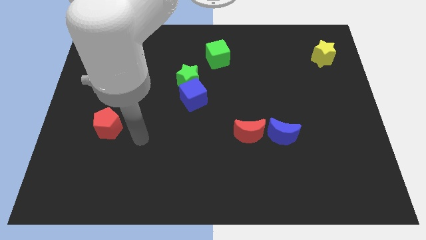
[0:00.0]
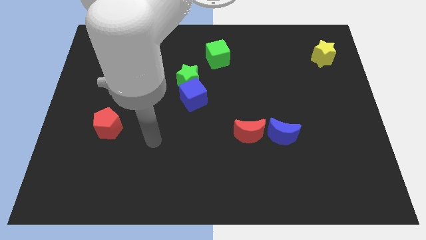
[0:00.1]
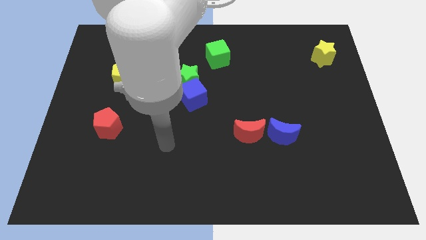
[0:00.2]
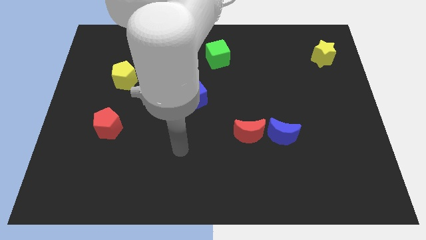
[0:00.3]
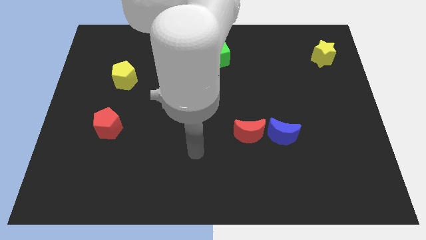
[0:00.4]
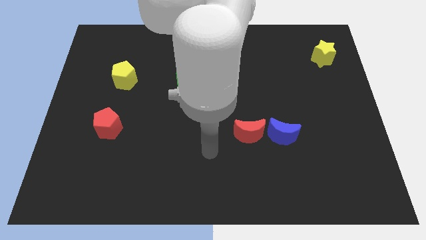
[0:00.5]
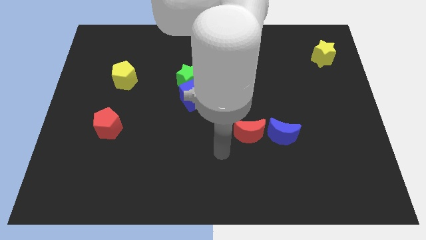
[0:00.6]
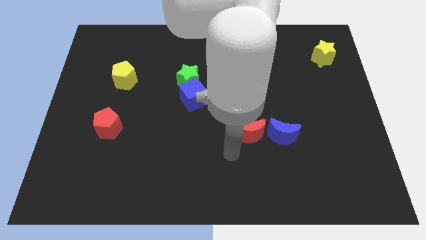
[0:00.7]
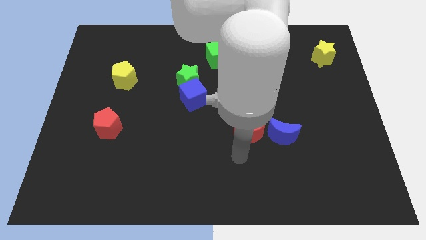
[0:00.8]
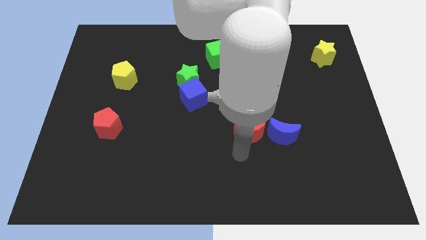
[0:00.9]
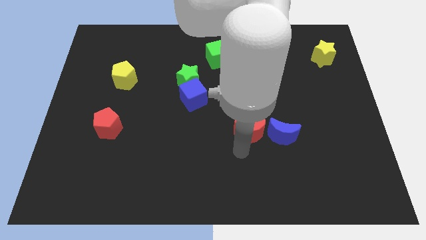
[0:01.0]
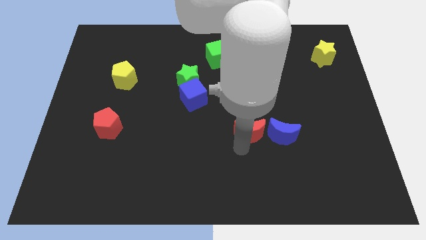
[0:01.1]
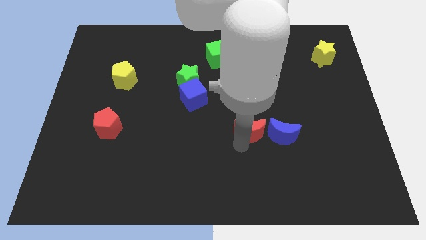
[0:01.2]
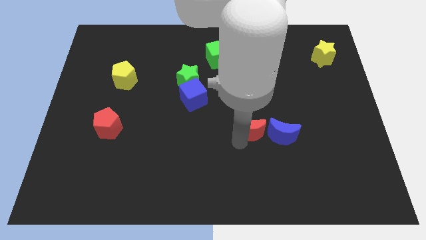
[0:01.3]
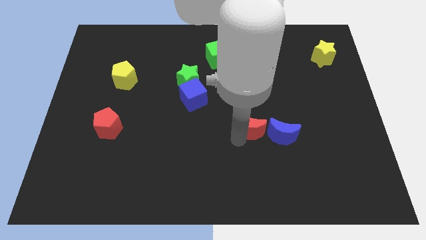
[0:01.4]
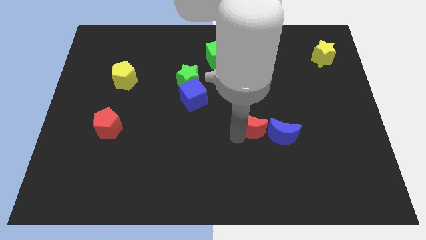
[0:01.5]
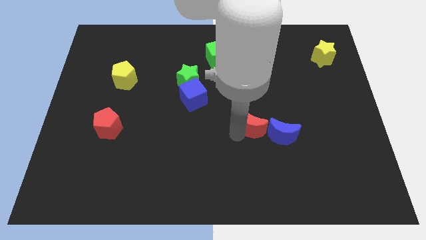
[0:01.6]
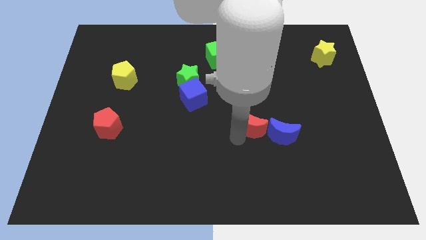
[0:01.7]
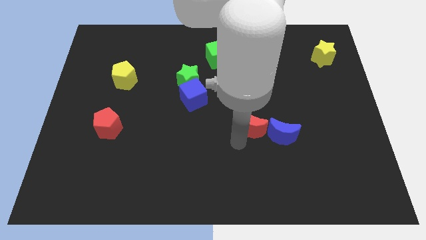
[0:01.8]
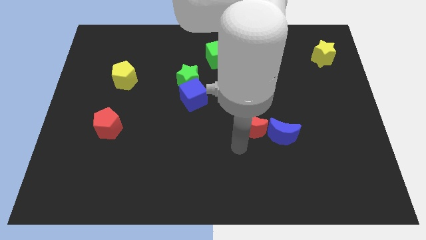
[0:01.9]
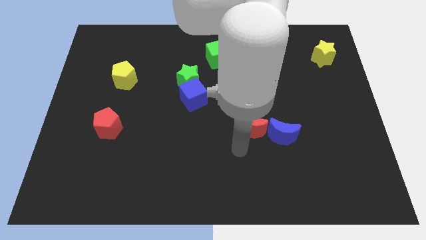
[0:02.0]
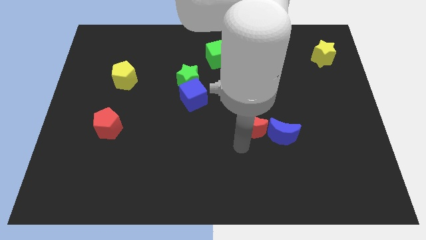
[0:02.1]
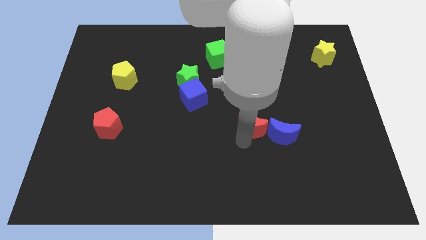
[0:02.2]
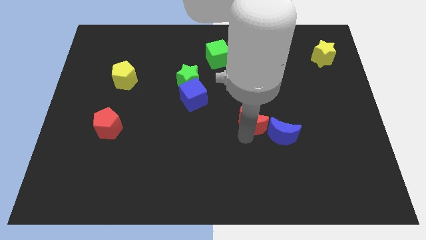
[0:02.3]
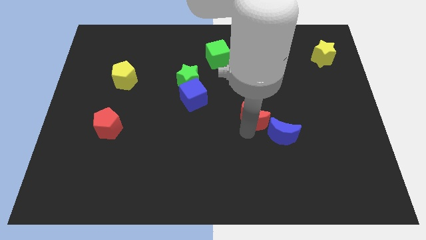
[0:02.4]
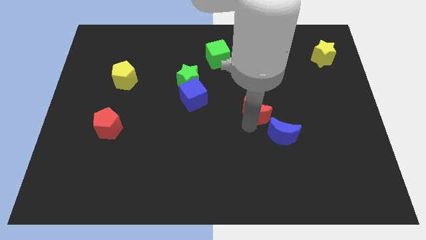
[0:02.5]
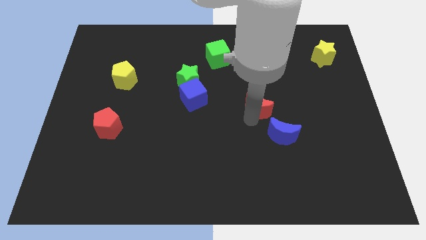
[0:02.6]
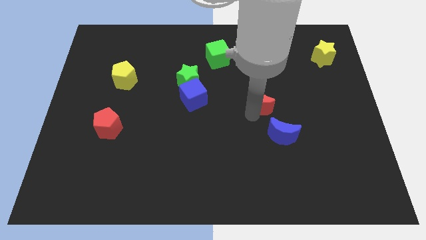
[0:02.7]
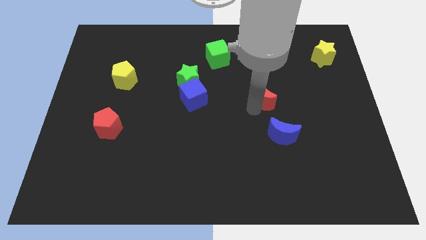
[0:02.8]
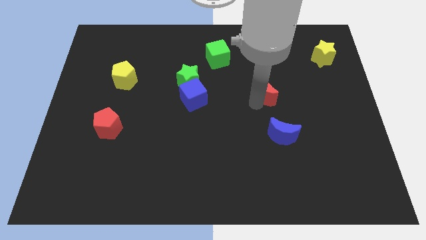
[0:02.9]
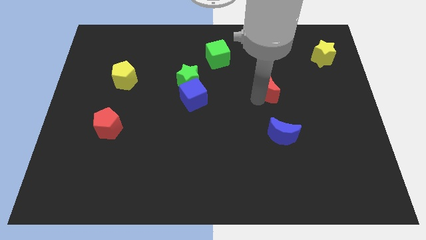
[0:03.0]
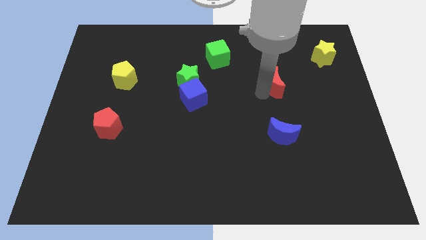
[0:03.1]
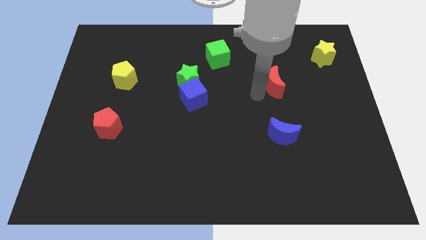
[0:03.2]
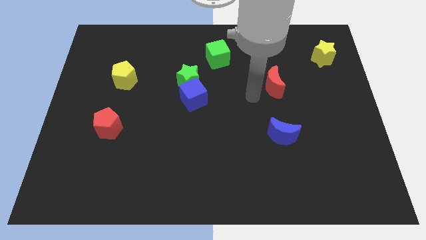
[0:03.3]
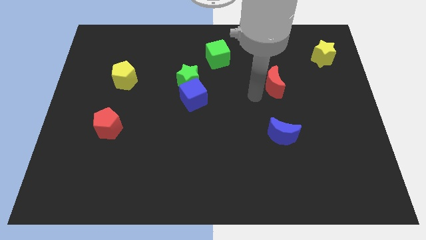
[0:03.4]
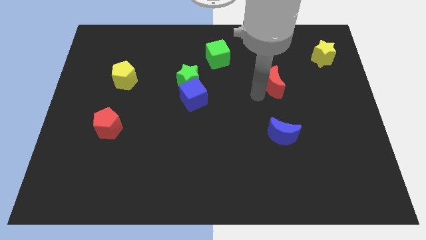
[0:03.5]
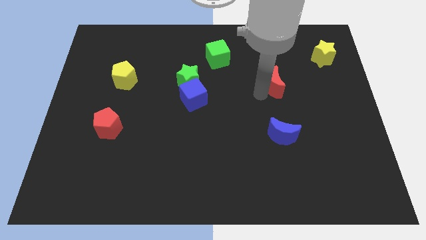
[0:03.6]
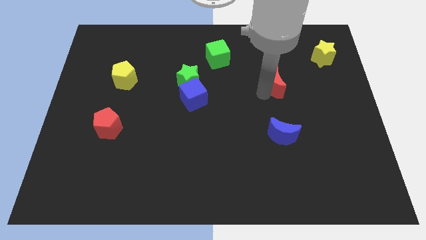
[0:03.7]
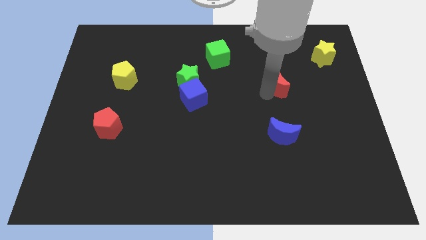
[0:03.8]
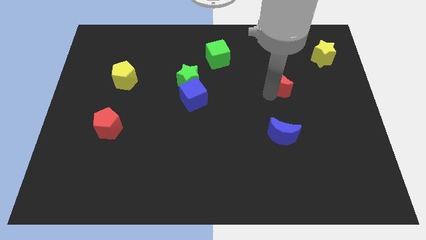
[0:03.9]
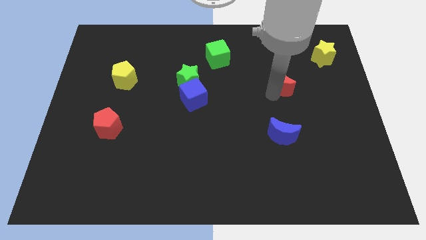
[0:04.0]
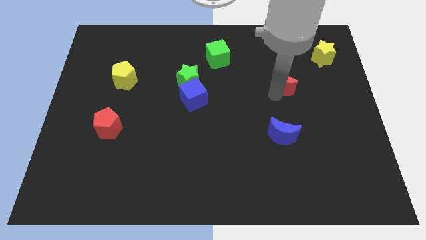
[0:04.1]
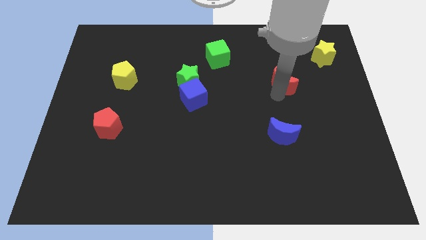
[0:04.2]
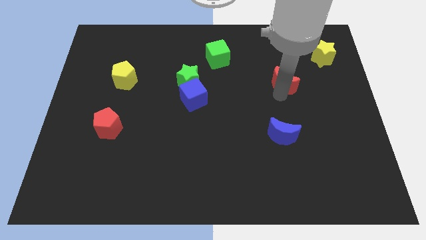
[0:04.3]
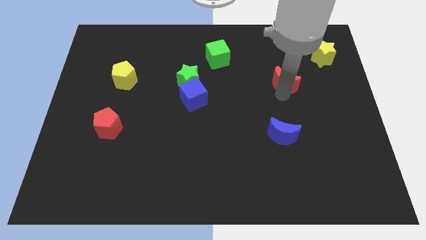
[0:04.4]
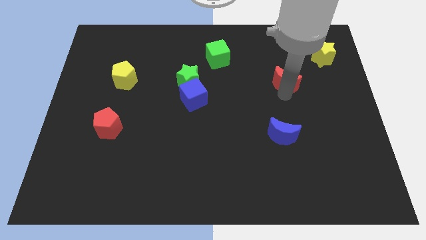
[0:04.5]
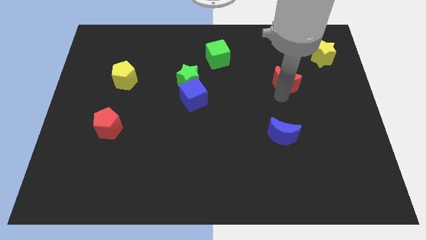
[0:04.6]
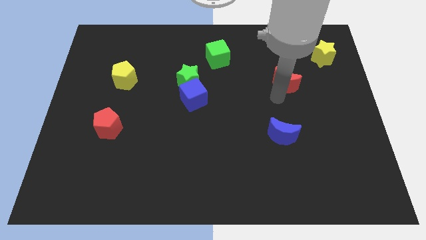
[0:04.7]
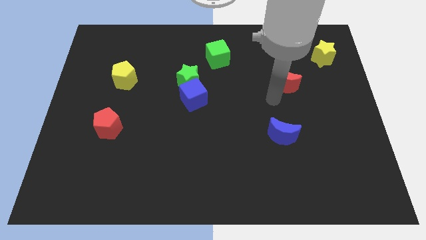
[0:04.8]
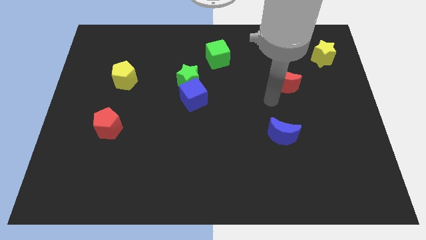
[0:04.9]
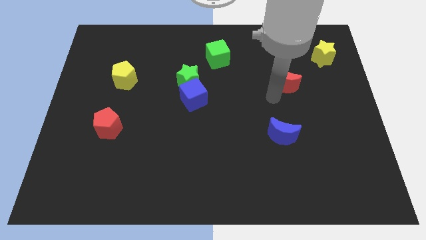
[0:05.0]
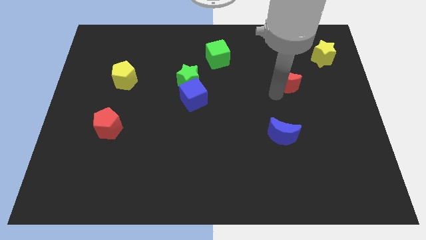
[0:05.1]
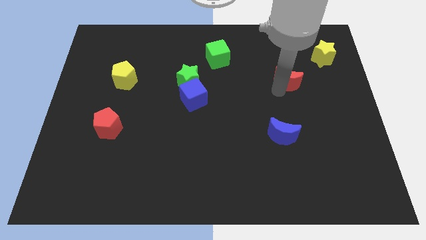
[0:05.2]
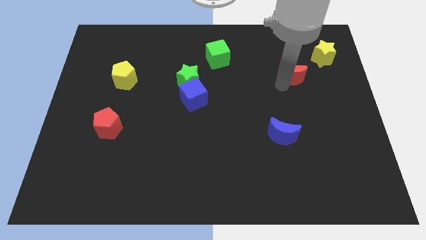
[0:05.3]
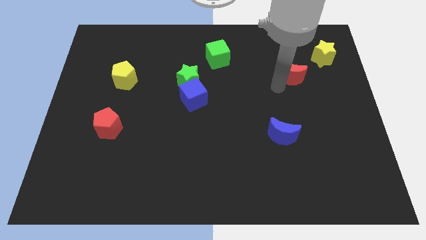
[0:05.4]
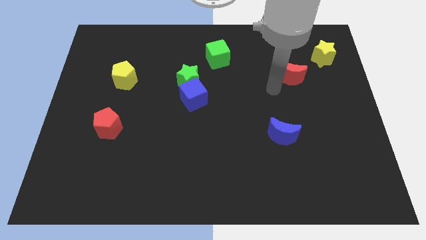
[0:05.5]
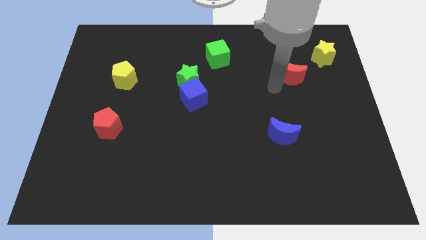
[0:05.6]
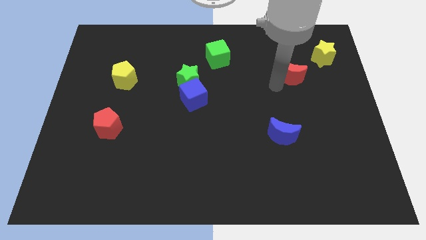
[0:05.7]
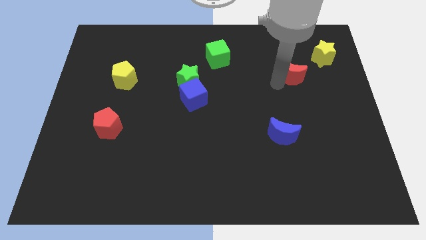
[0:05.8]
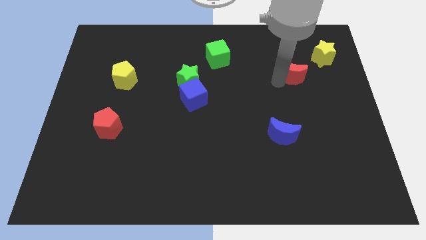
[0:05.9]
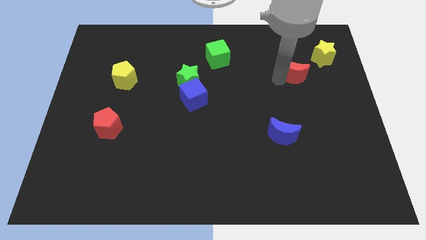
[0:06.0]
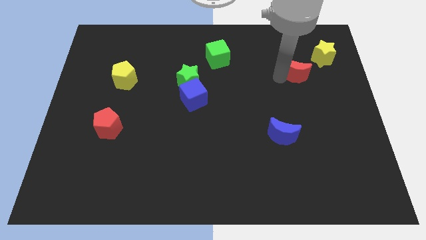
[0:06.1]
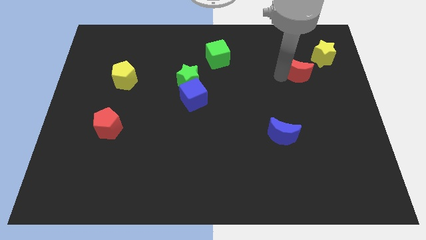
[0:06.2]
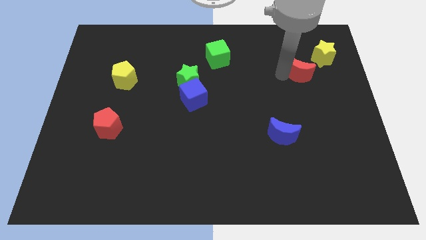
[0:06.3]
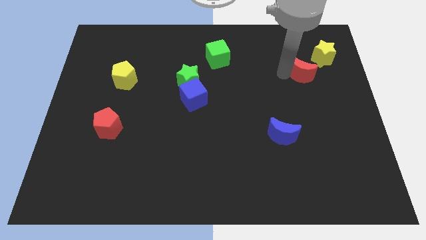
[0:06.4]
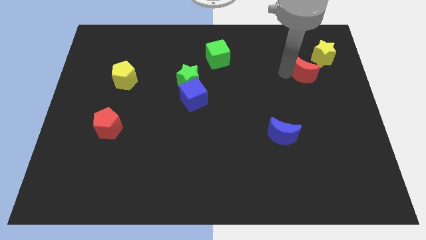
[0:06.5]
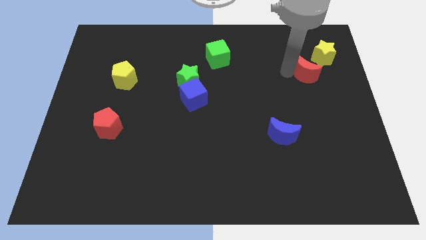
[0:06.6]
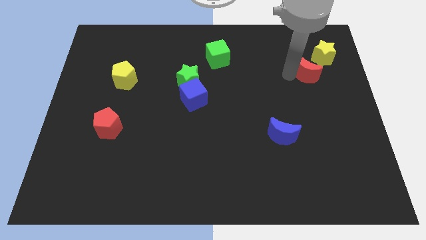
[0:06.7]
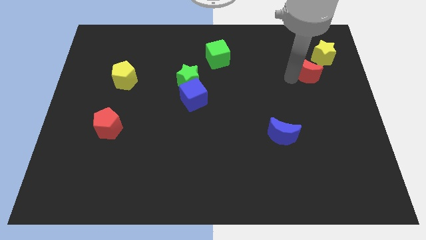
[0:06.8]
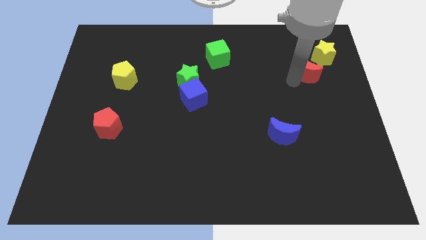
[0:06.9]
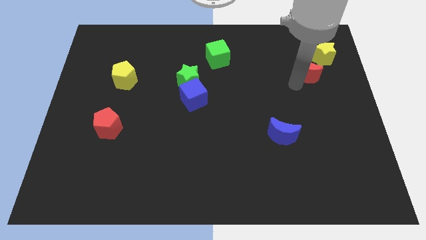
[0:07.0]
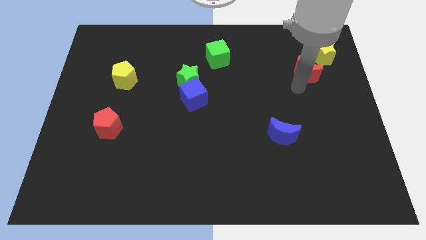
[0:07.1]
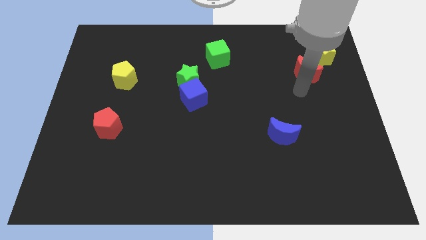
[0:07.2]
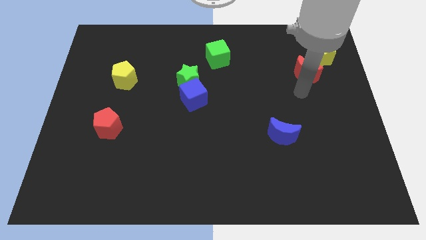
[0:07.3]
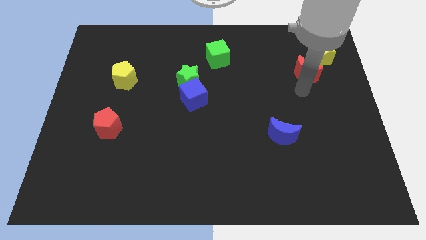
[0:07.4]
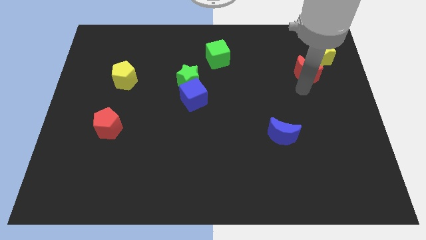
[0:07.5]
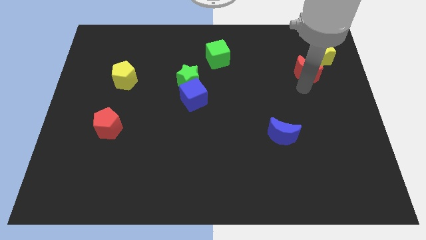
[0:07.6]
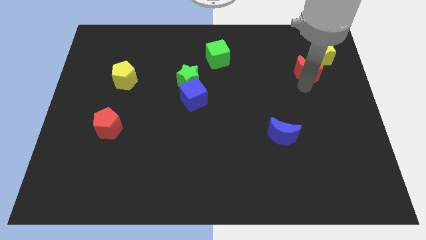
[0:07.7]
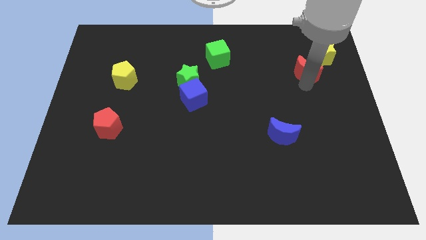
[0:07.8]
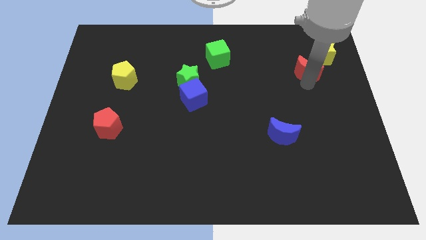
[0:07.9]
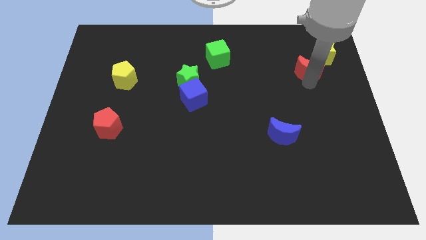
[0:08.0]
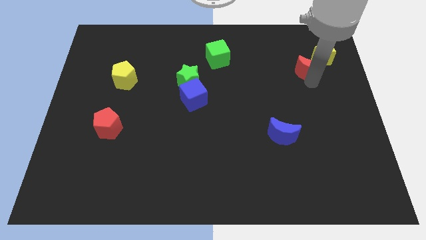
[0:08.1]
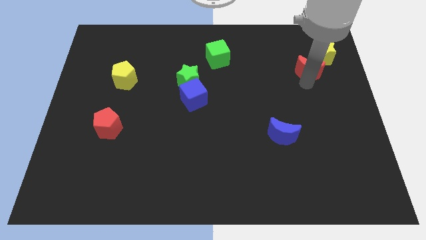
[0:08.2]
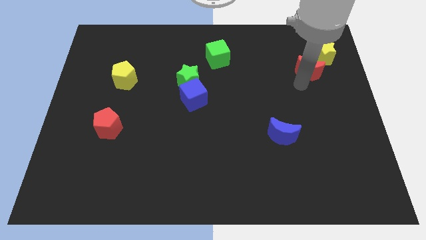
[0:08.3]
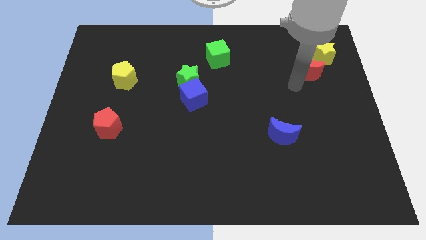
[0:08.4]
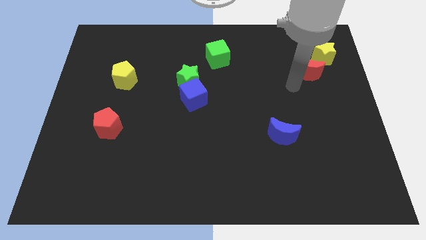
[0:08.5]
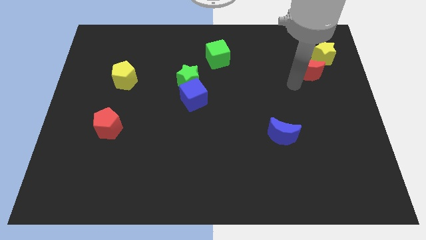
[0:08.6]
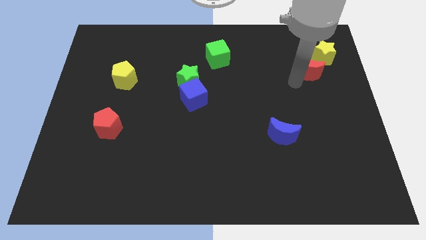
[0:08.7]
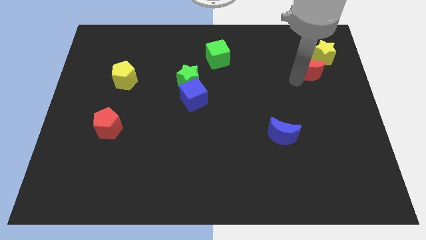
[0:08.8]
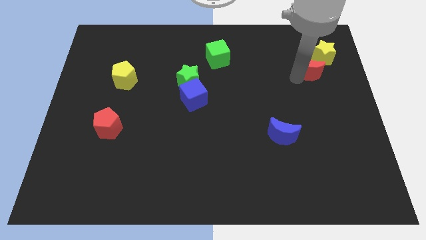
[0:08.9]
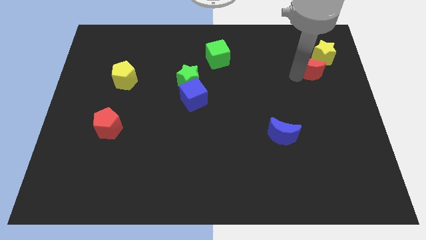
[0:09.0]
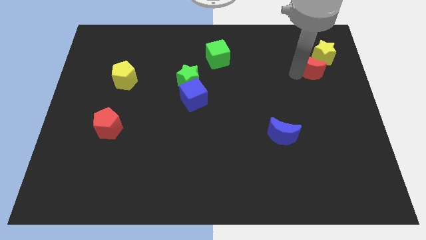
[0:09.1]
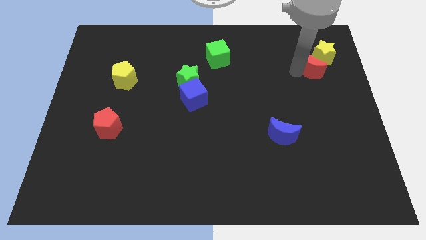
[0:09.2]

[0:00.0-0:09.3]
move the red moon towards the yellow star
